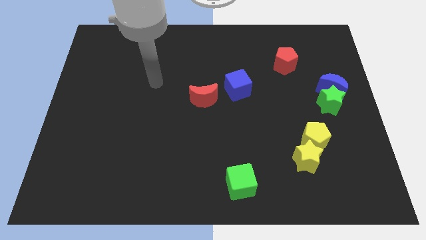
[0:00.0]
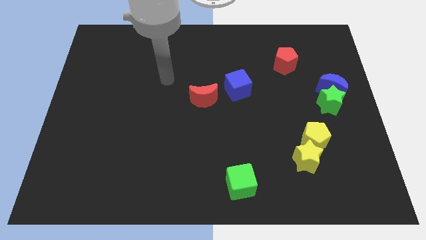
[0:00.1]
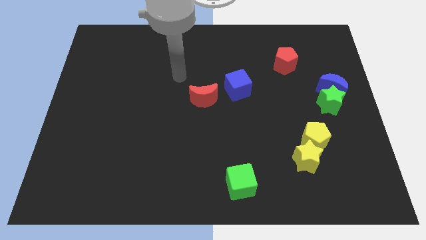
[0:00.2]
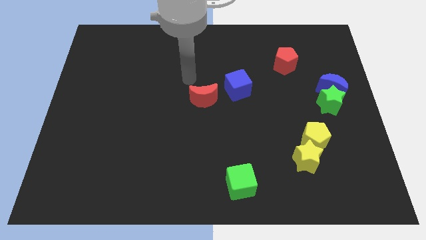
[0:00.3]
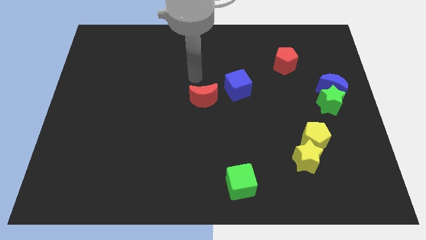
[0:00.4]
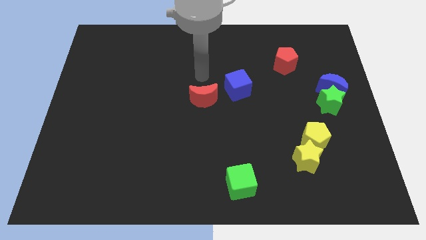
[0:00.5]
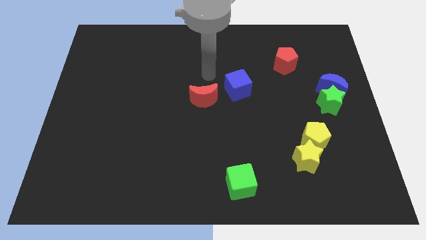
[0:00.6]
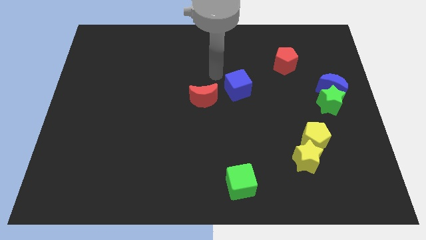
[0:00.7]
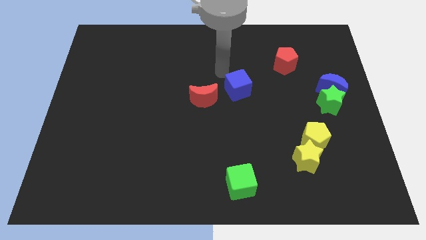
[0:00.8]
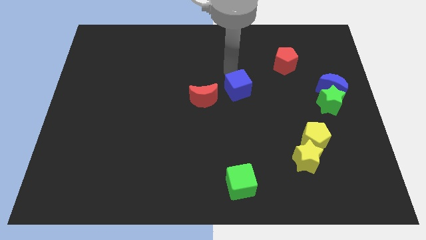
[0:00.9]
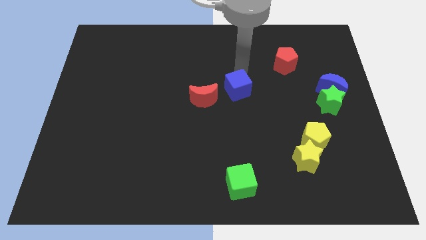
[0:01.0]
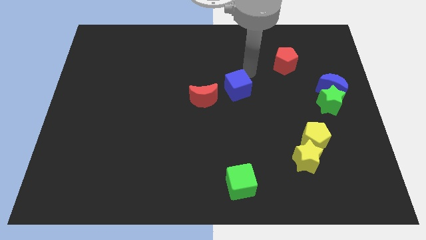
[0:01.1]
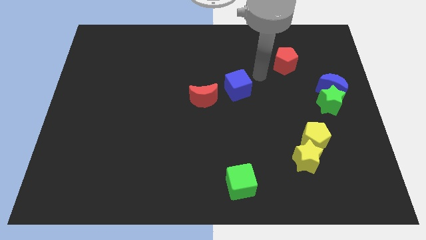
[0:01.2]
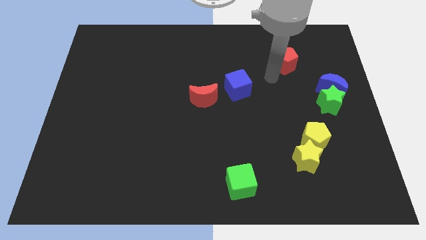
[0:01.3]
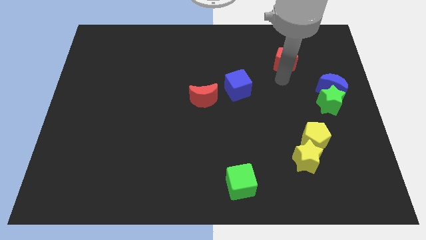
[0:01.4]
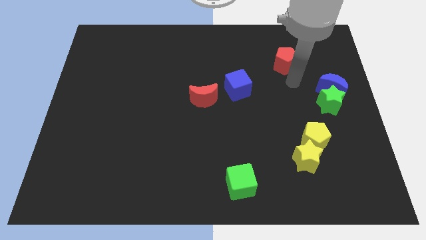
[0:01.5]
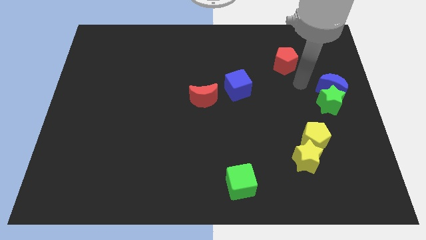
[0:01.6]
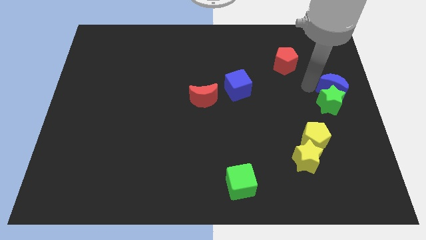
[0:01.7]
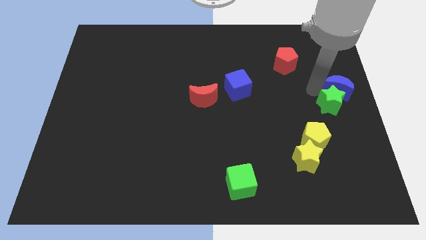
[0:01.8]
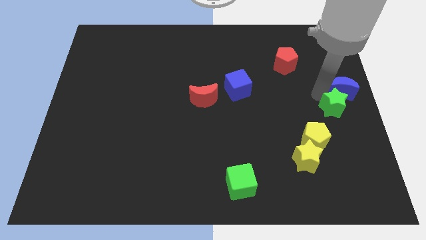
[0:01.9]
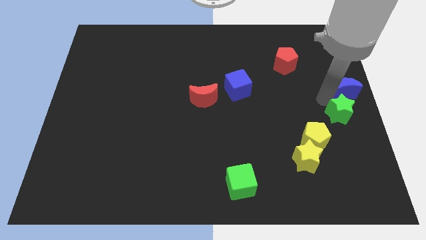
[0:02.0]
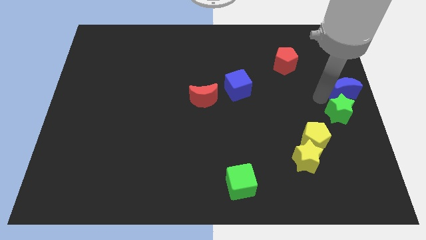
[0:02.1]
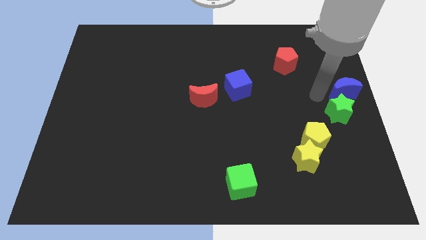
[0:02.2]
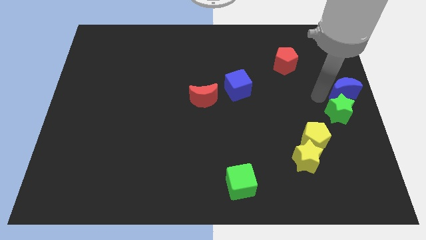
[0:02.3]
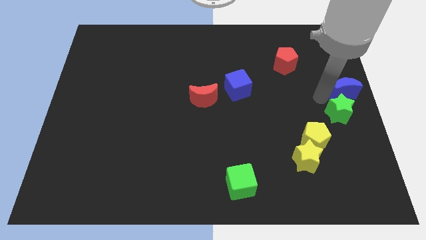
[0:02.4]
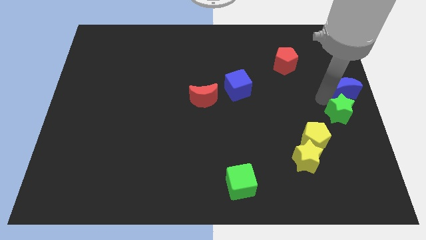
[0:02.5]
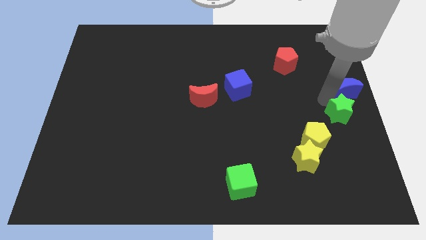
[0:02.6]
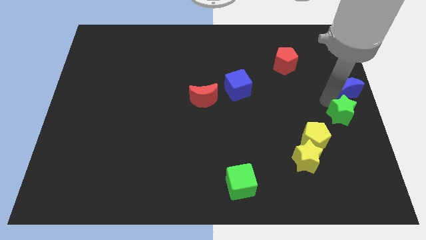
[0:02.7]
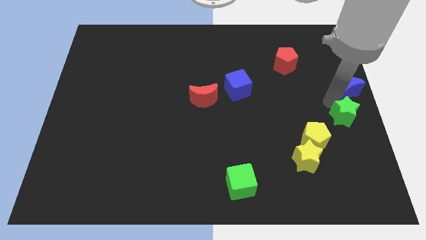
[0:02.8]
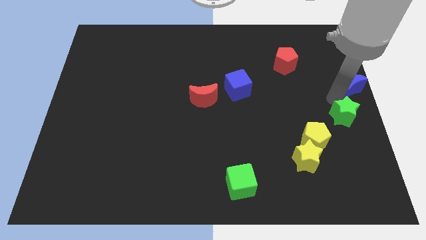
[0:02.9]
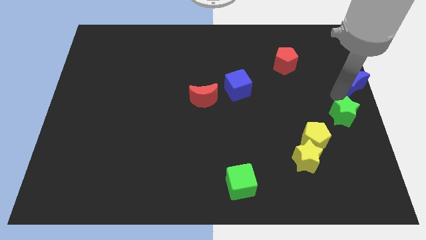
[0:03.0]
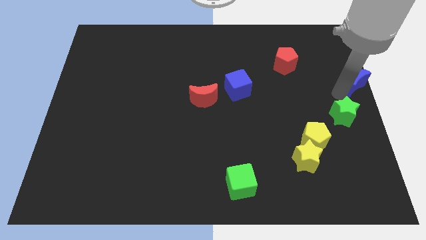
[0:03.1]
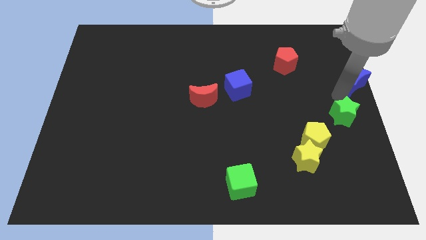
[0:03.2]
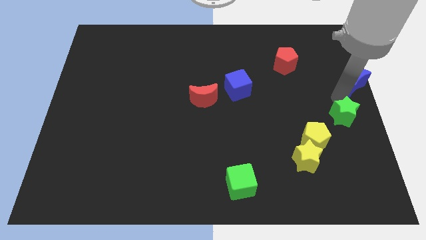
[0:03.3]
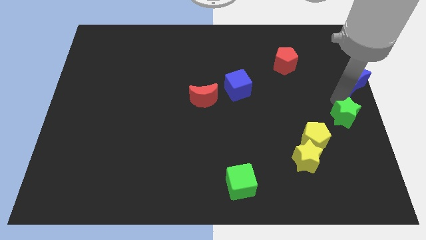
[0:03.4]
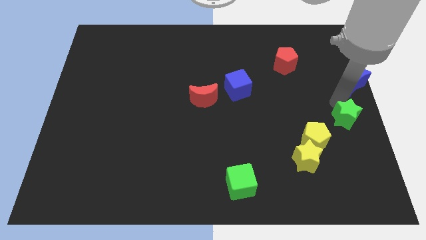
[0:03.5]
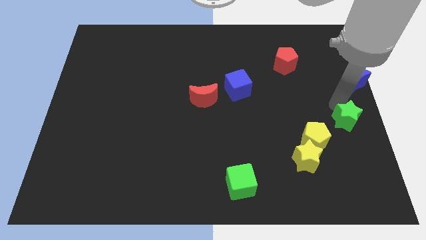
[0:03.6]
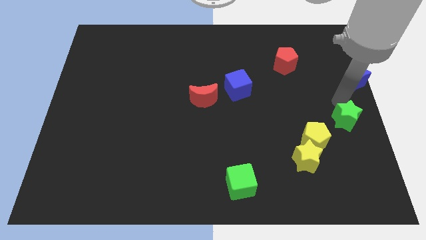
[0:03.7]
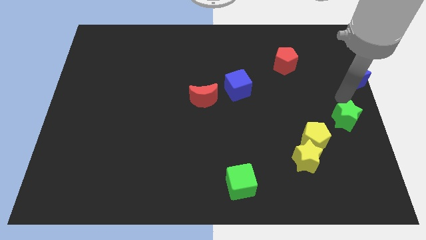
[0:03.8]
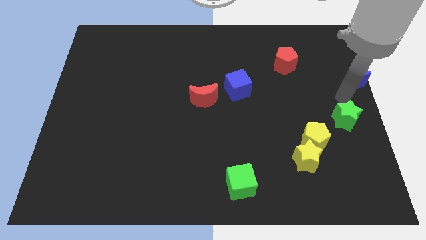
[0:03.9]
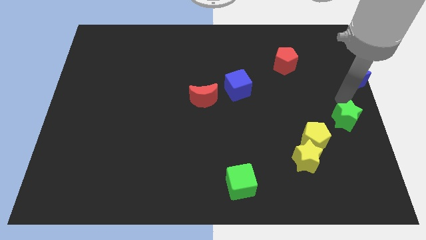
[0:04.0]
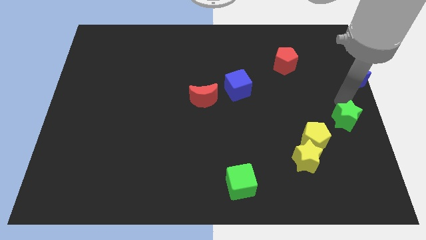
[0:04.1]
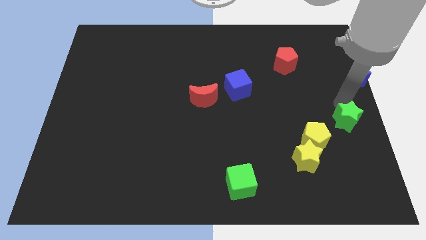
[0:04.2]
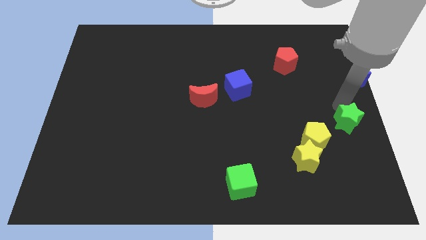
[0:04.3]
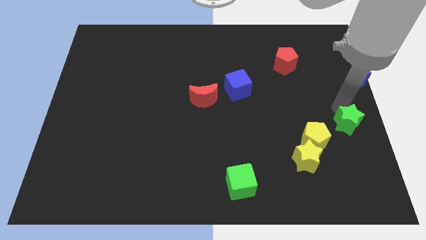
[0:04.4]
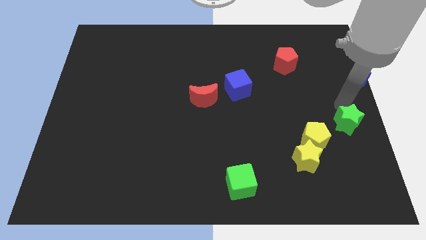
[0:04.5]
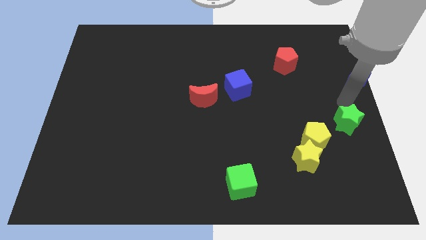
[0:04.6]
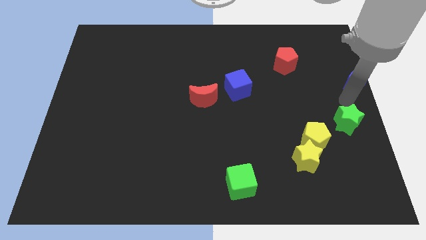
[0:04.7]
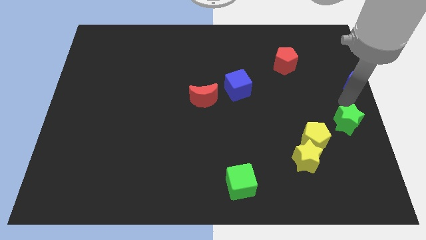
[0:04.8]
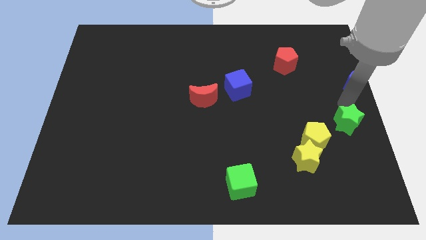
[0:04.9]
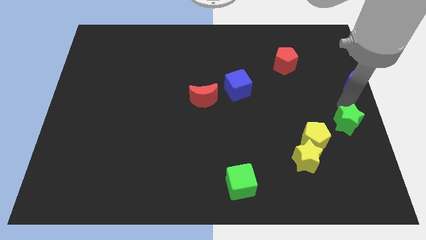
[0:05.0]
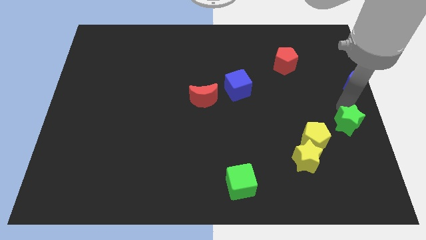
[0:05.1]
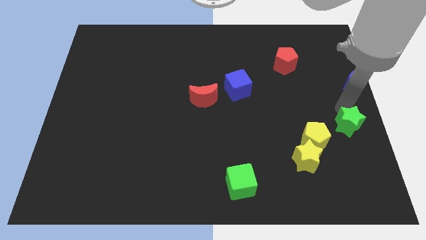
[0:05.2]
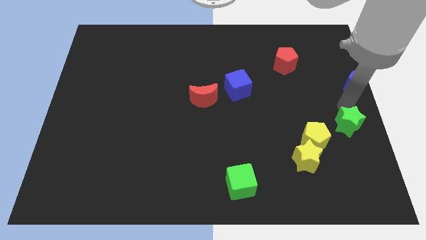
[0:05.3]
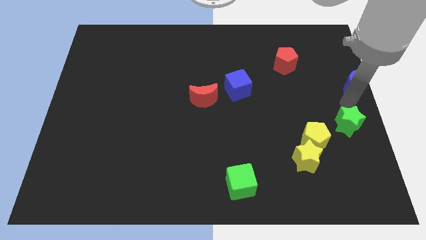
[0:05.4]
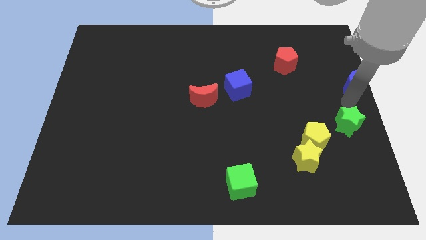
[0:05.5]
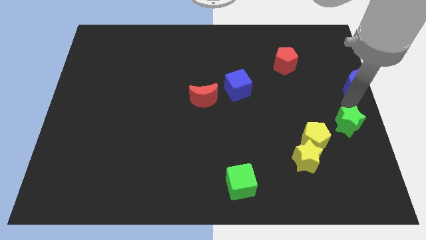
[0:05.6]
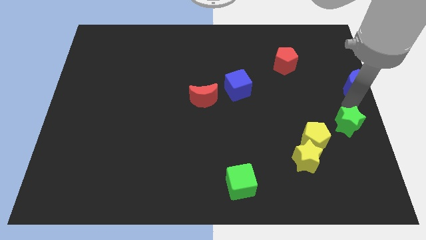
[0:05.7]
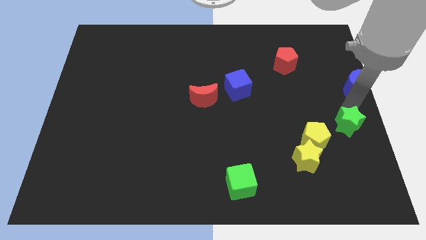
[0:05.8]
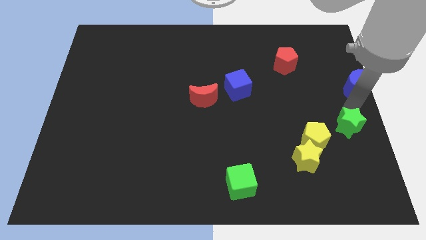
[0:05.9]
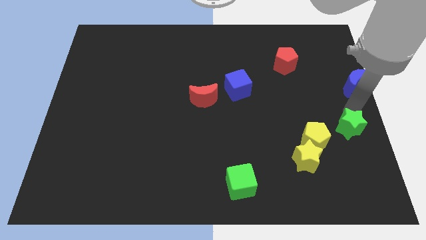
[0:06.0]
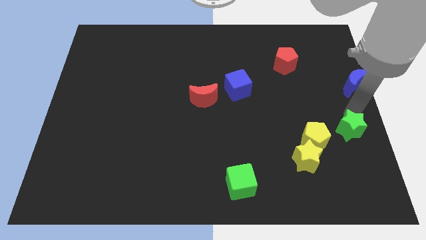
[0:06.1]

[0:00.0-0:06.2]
slightly slide the green star down

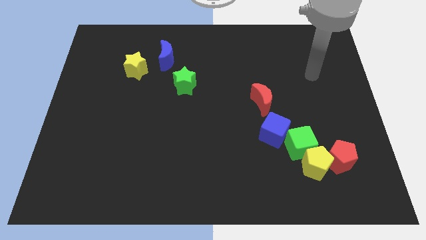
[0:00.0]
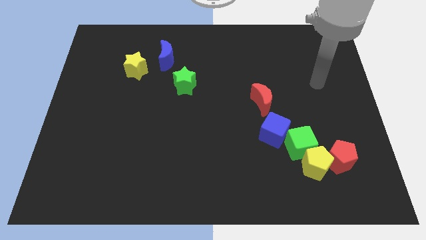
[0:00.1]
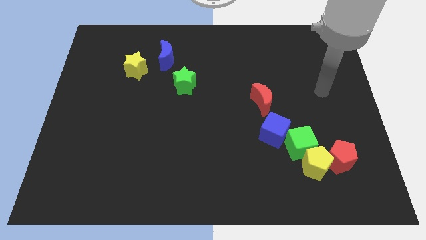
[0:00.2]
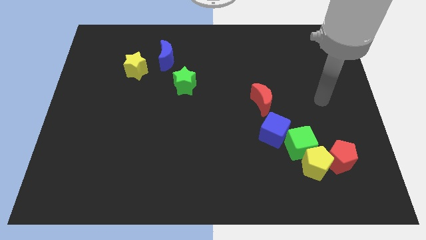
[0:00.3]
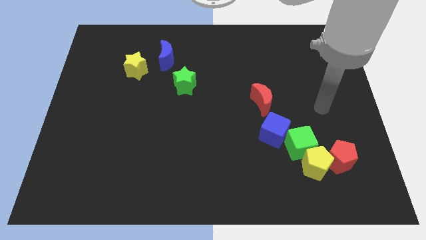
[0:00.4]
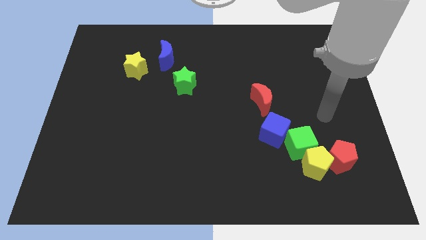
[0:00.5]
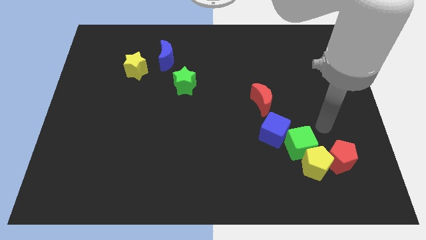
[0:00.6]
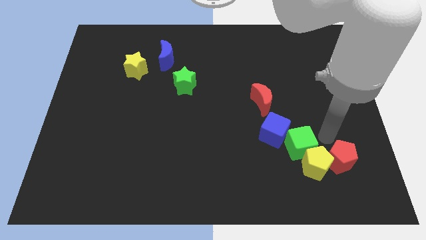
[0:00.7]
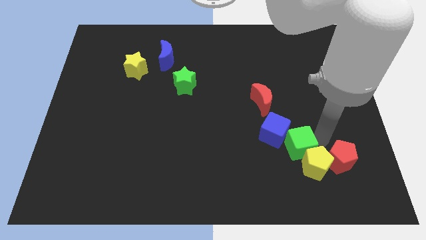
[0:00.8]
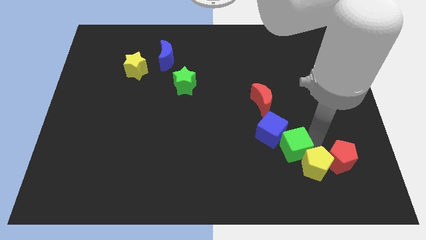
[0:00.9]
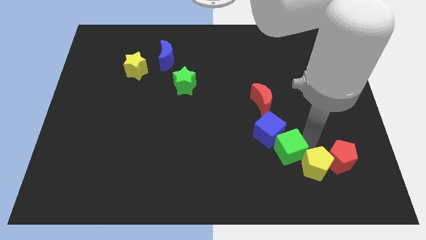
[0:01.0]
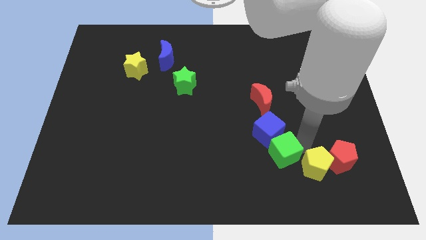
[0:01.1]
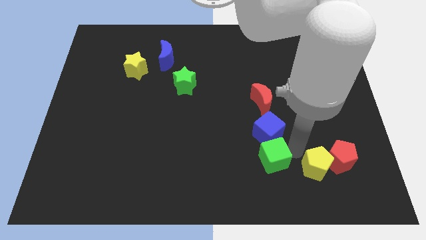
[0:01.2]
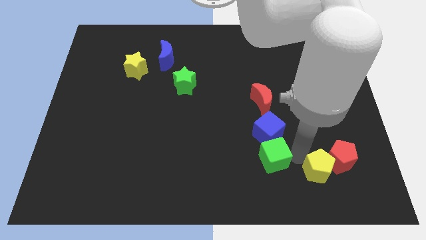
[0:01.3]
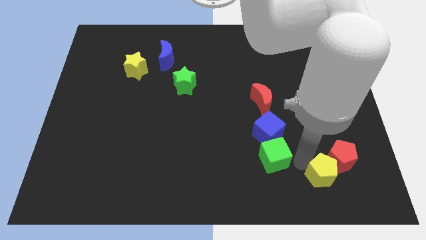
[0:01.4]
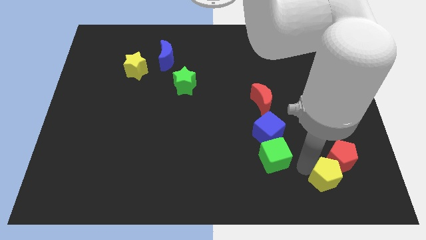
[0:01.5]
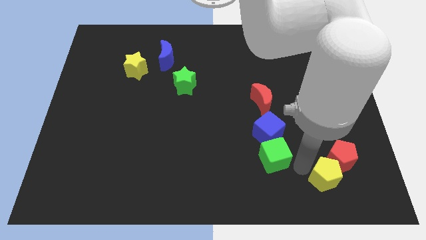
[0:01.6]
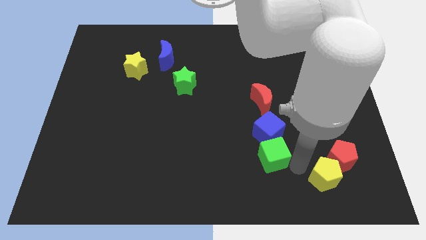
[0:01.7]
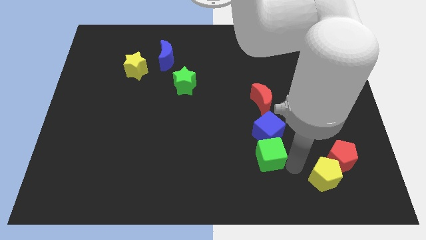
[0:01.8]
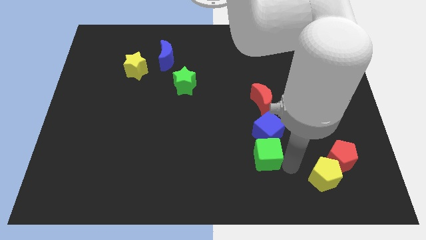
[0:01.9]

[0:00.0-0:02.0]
slightly move the green cube left

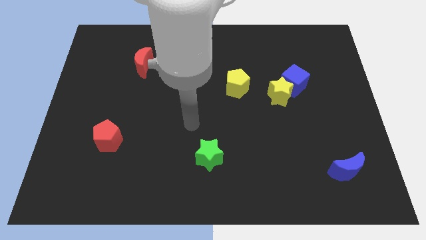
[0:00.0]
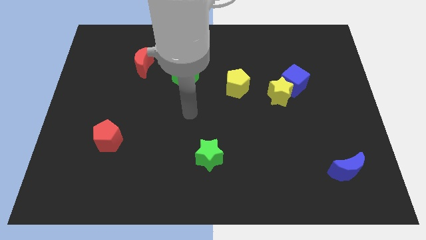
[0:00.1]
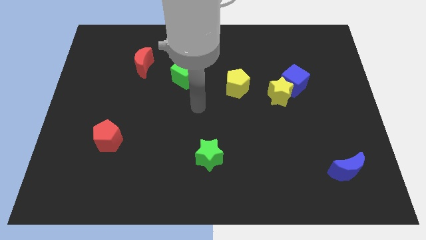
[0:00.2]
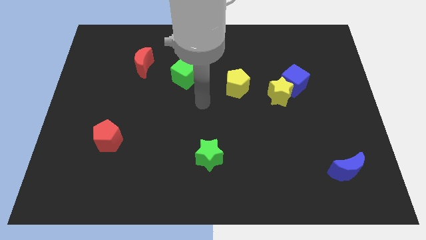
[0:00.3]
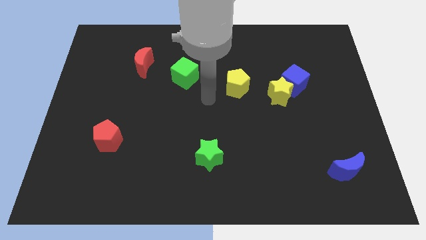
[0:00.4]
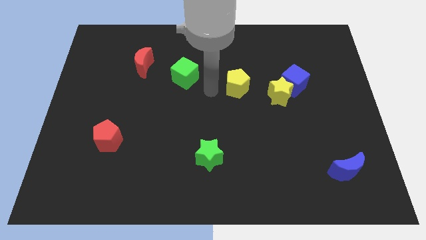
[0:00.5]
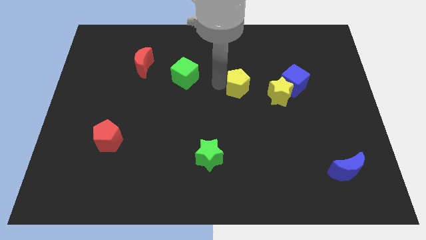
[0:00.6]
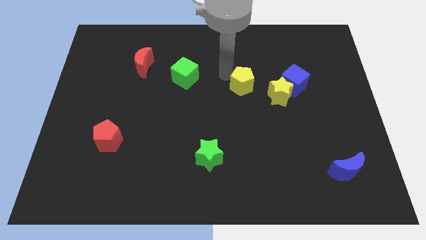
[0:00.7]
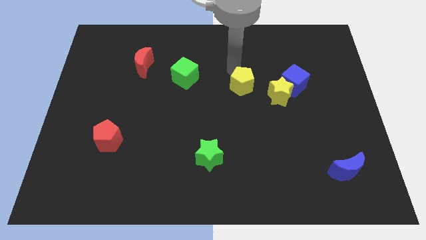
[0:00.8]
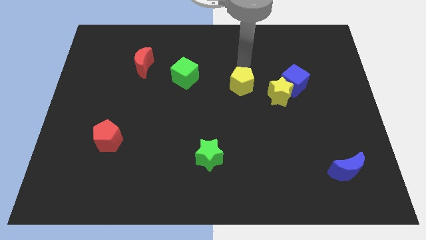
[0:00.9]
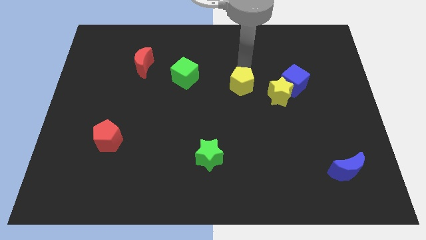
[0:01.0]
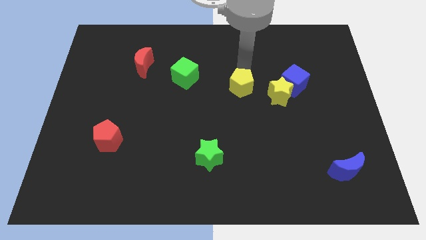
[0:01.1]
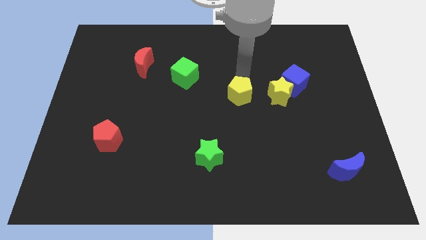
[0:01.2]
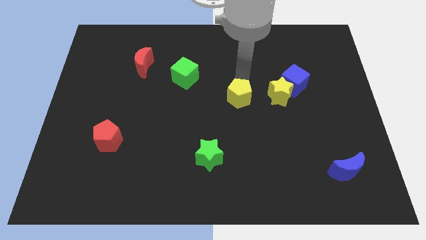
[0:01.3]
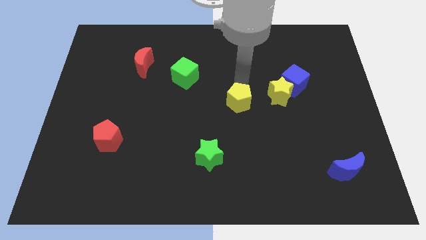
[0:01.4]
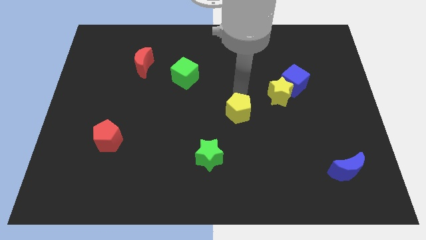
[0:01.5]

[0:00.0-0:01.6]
move the yellow pentagon downwards a little
